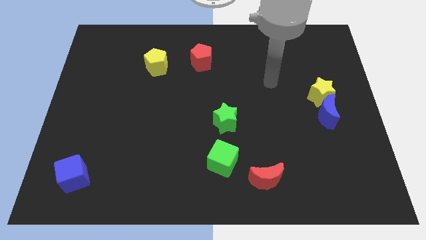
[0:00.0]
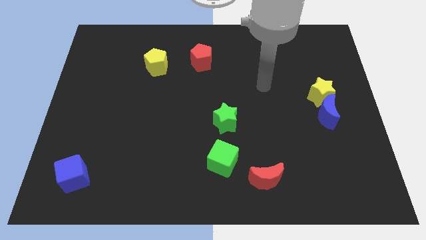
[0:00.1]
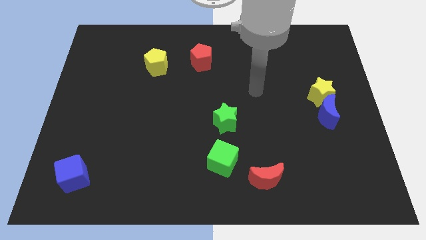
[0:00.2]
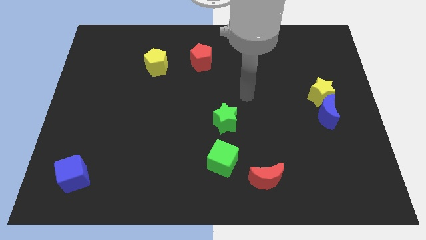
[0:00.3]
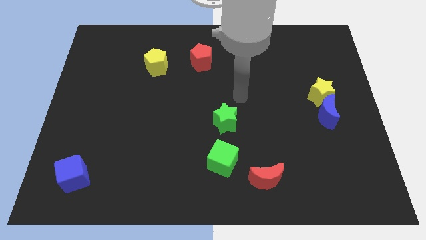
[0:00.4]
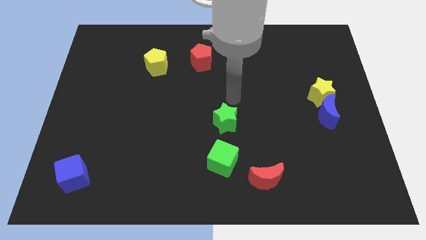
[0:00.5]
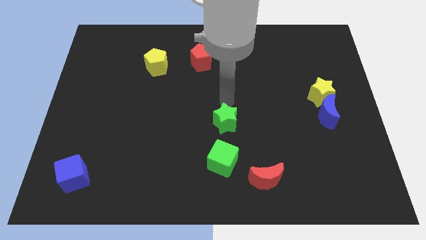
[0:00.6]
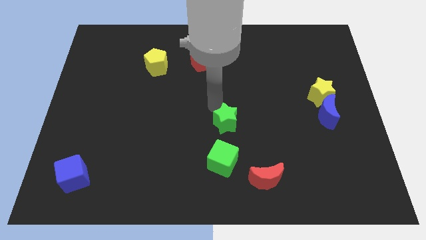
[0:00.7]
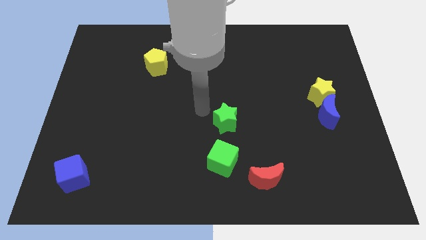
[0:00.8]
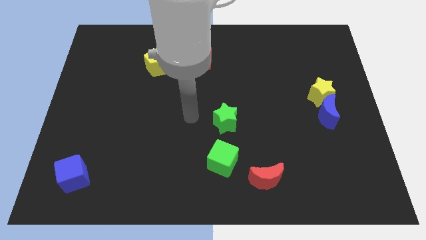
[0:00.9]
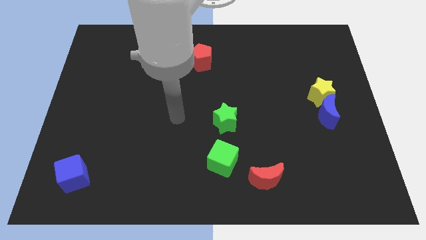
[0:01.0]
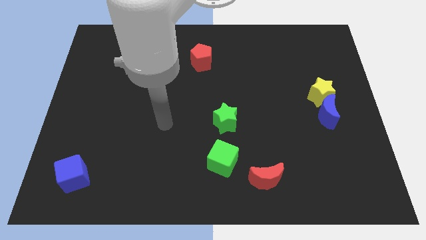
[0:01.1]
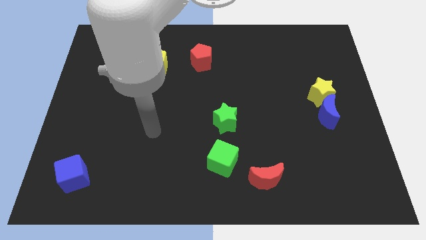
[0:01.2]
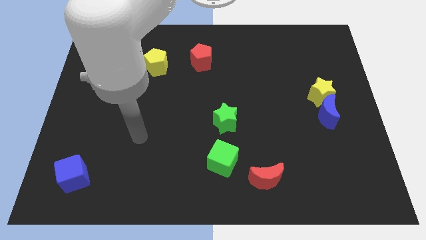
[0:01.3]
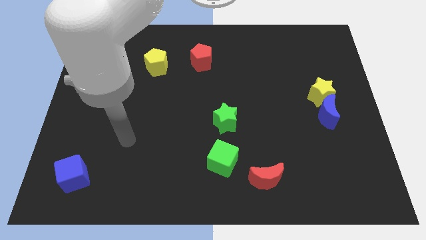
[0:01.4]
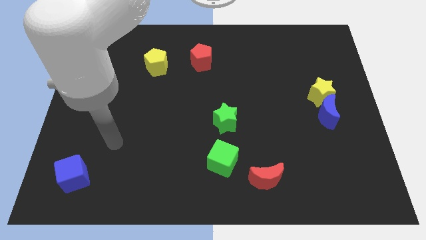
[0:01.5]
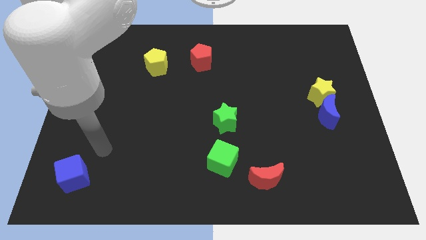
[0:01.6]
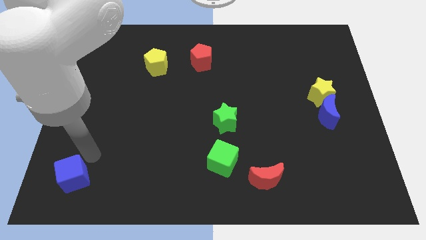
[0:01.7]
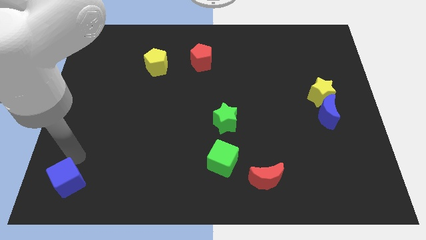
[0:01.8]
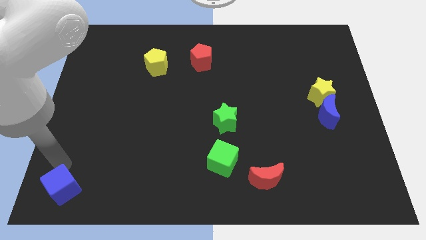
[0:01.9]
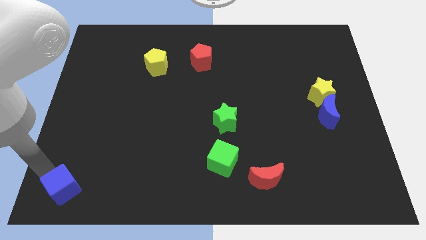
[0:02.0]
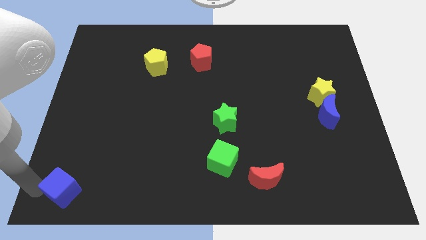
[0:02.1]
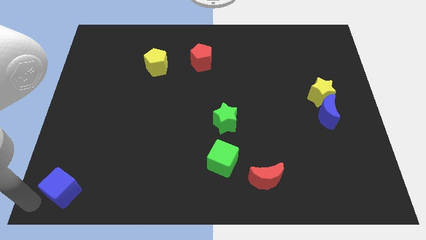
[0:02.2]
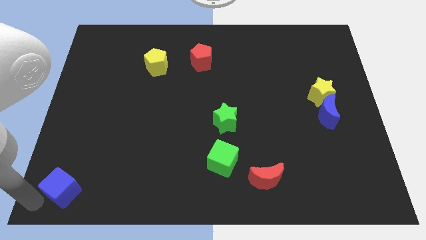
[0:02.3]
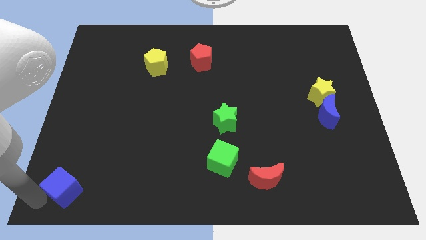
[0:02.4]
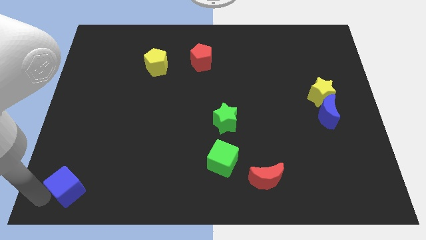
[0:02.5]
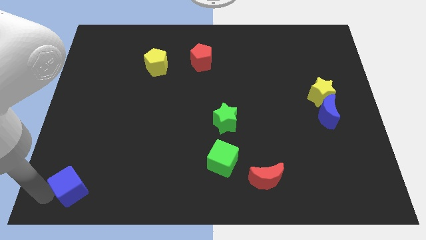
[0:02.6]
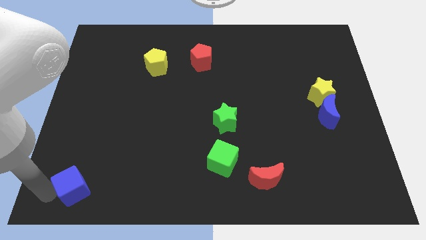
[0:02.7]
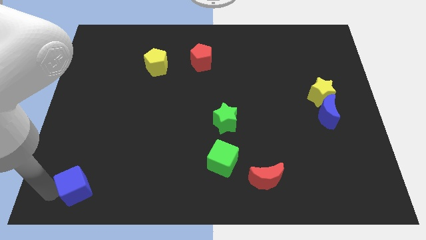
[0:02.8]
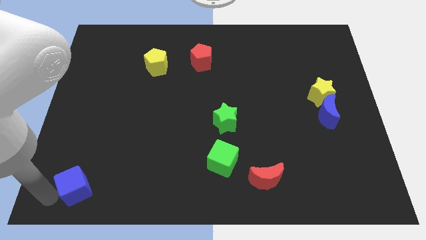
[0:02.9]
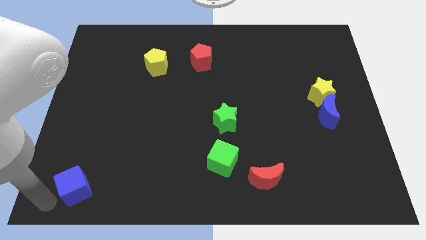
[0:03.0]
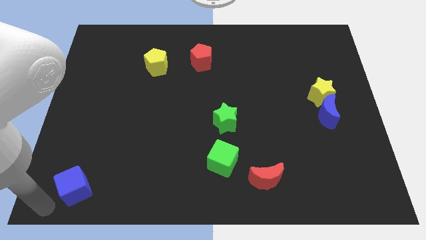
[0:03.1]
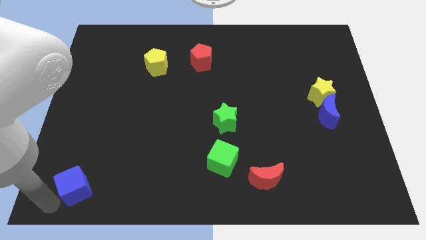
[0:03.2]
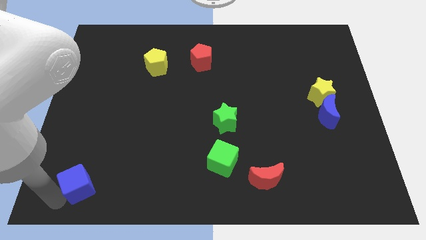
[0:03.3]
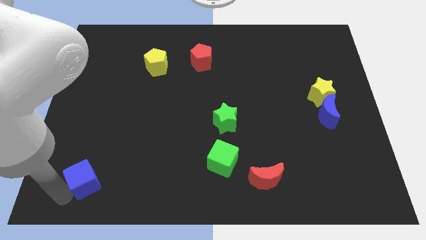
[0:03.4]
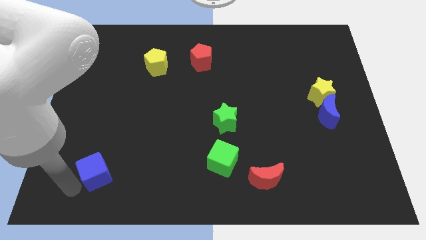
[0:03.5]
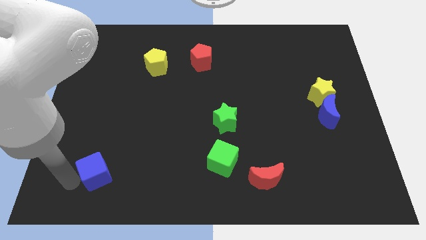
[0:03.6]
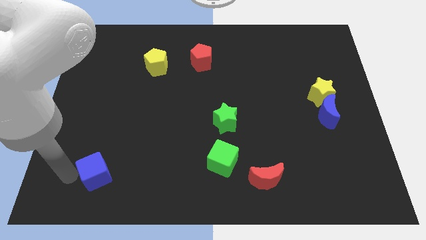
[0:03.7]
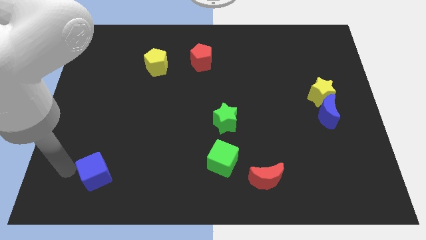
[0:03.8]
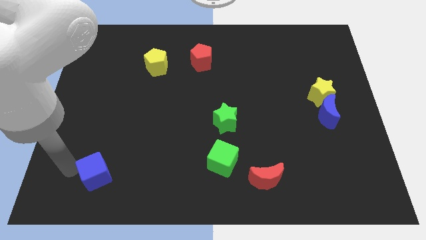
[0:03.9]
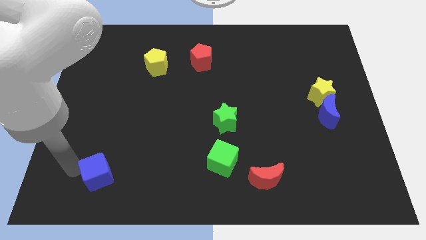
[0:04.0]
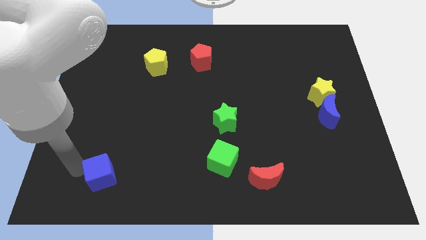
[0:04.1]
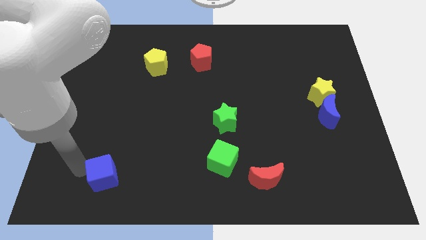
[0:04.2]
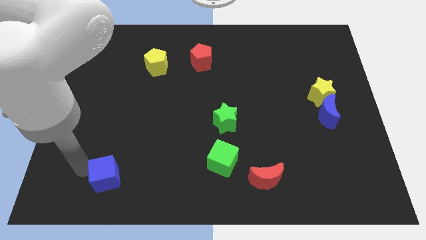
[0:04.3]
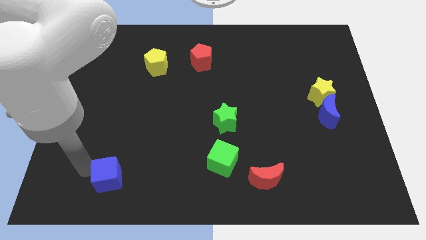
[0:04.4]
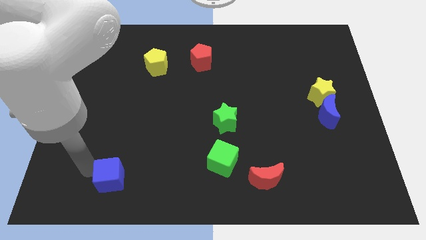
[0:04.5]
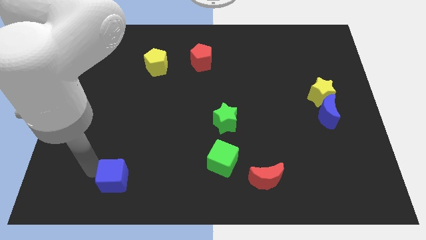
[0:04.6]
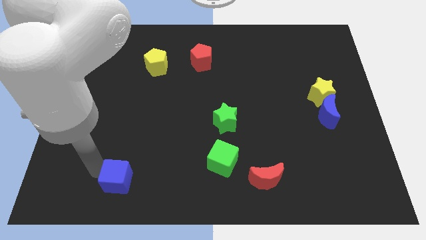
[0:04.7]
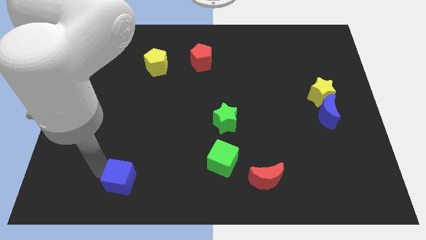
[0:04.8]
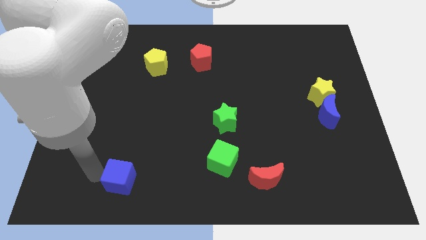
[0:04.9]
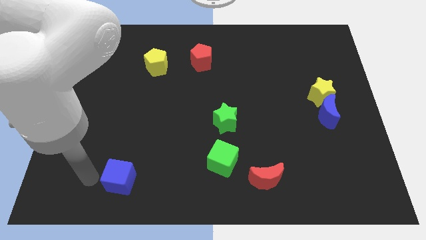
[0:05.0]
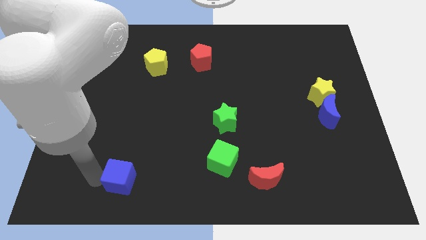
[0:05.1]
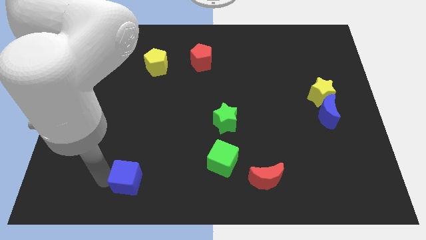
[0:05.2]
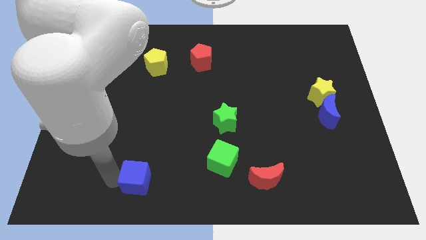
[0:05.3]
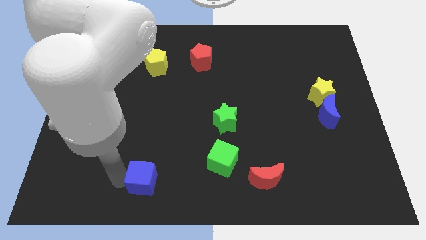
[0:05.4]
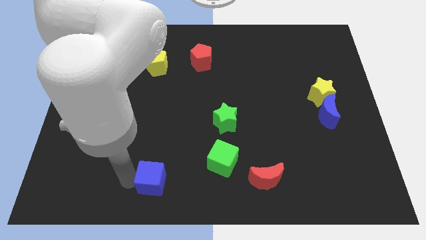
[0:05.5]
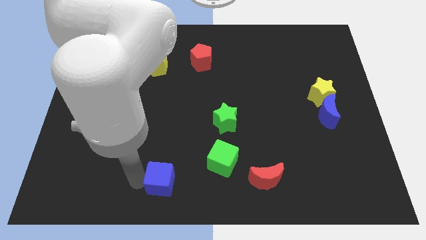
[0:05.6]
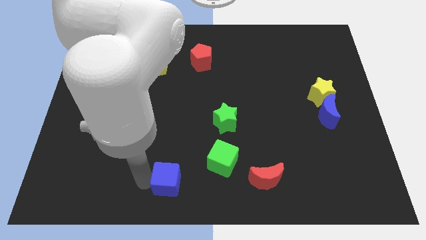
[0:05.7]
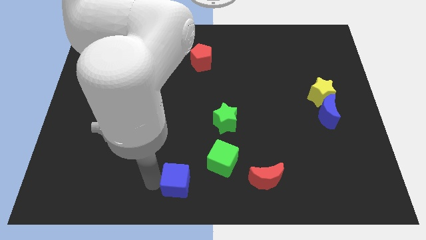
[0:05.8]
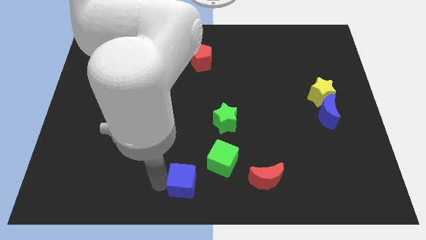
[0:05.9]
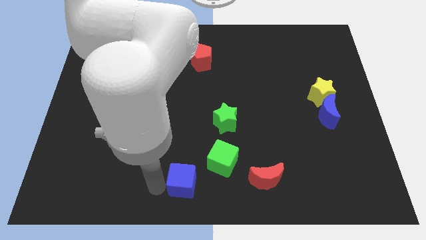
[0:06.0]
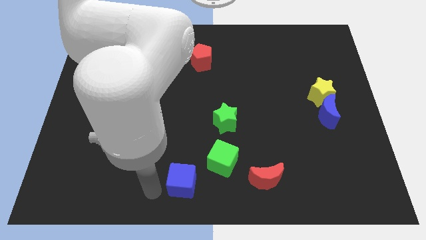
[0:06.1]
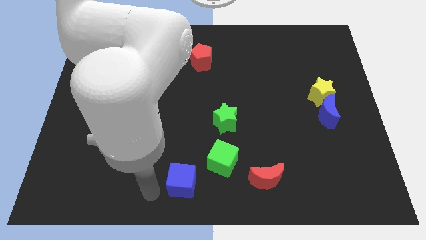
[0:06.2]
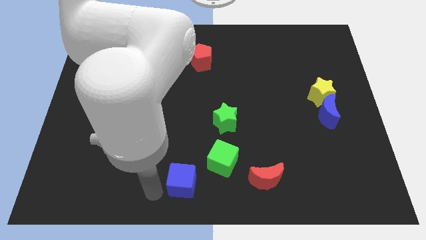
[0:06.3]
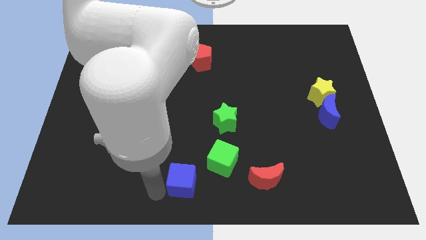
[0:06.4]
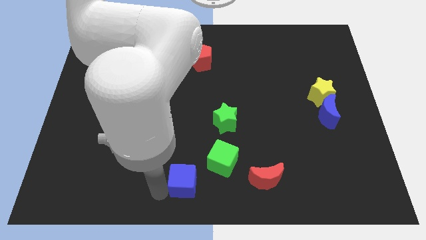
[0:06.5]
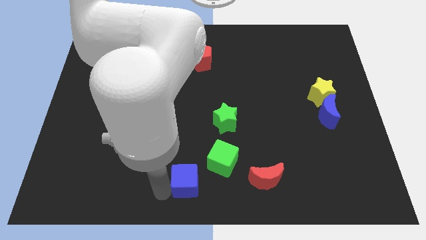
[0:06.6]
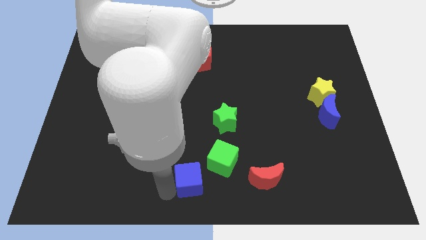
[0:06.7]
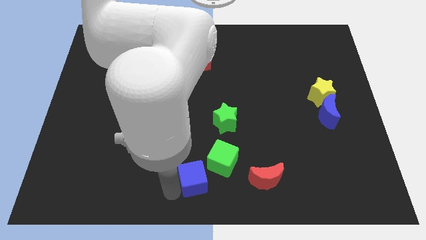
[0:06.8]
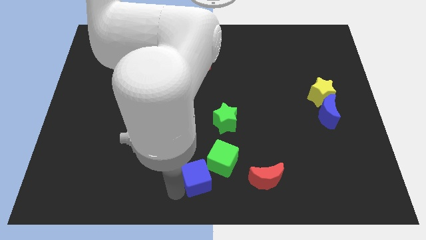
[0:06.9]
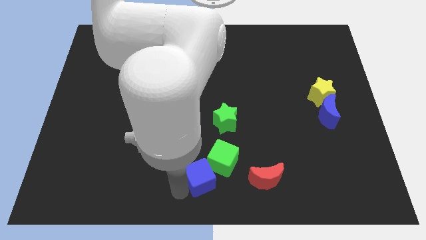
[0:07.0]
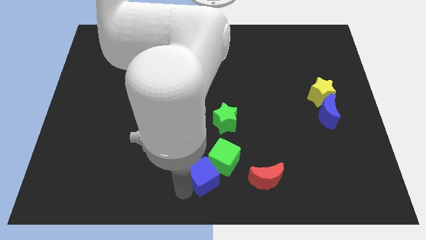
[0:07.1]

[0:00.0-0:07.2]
push the blue cube towards the green cube

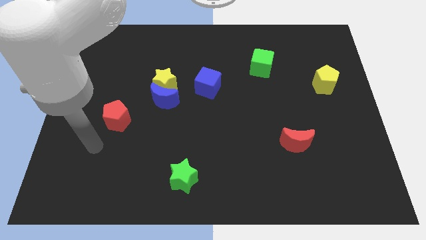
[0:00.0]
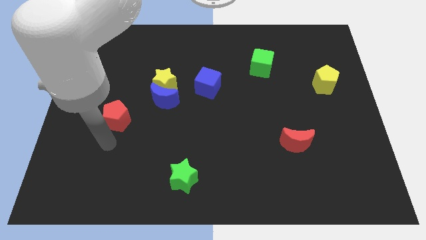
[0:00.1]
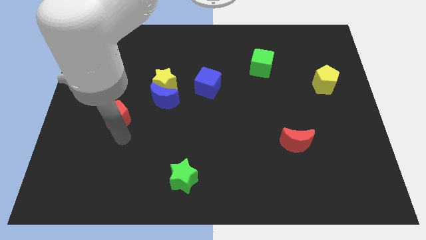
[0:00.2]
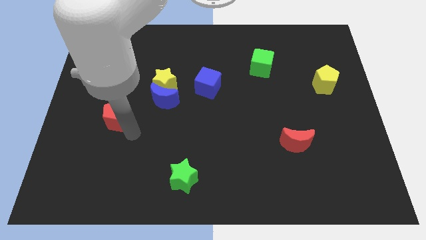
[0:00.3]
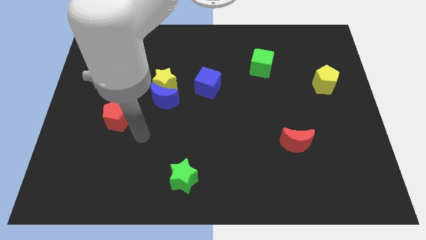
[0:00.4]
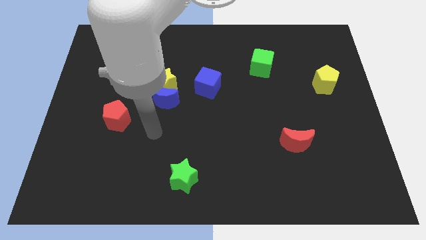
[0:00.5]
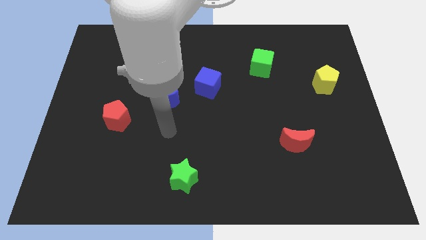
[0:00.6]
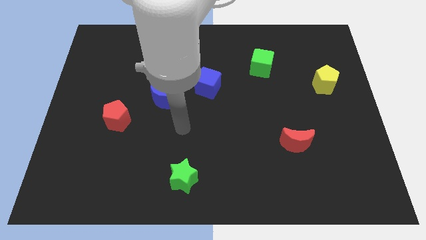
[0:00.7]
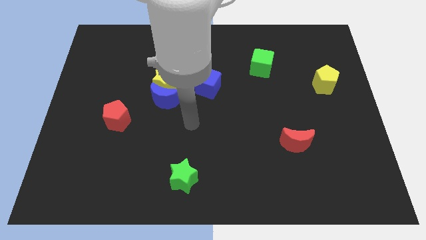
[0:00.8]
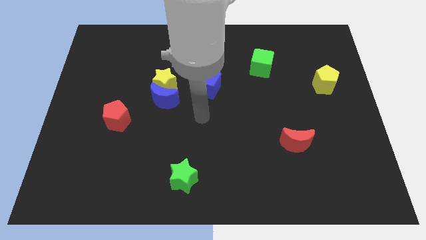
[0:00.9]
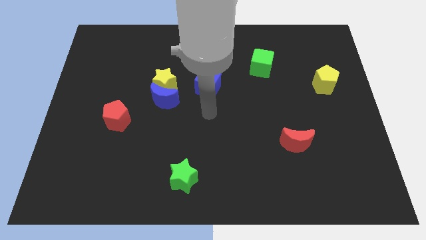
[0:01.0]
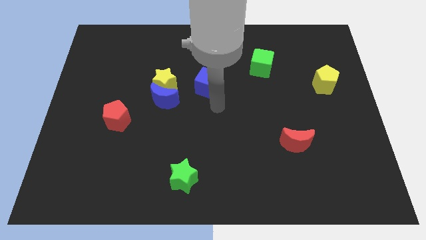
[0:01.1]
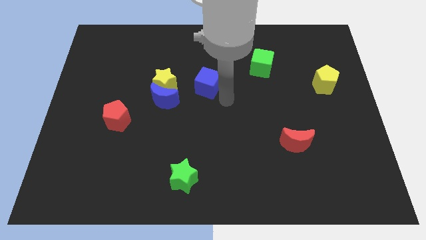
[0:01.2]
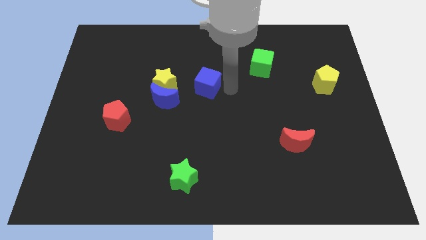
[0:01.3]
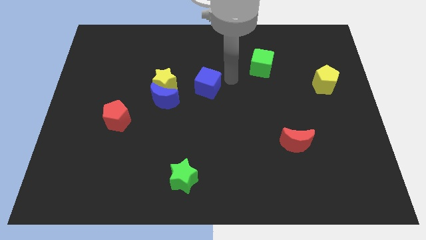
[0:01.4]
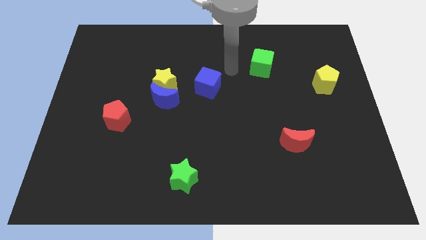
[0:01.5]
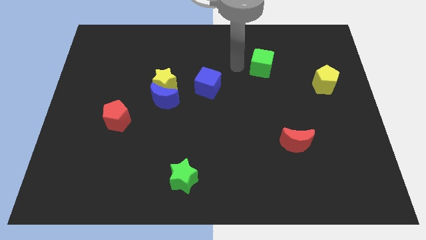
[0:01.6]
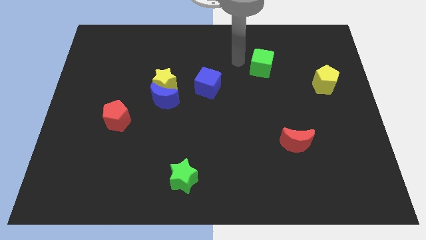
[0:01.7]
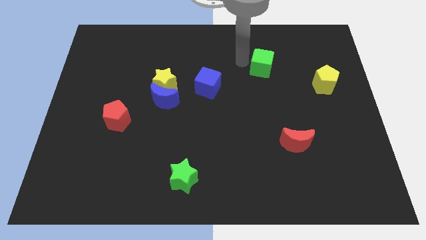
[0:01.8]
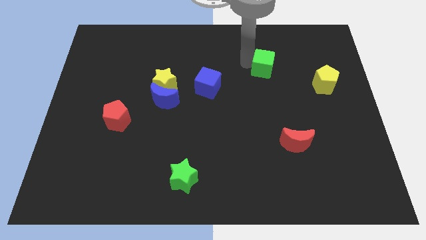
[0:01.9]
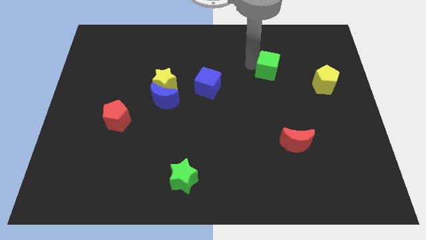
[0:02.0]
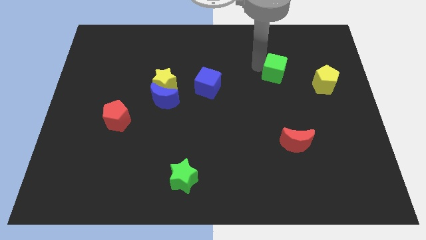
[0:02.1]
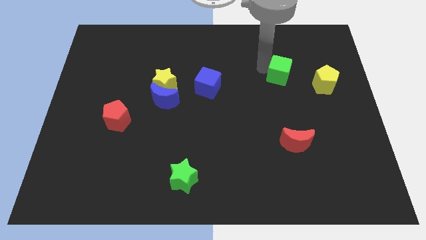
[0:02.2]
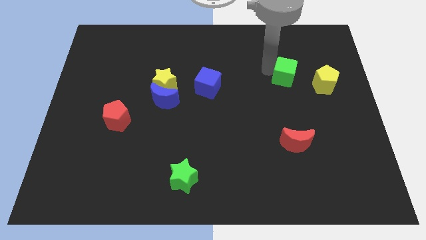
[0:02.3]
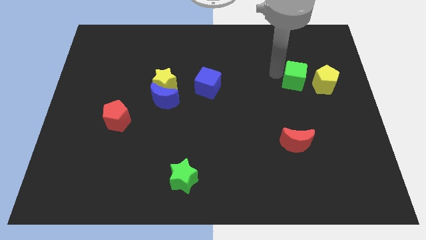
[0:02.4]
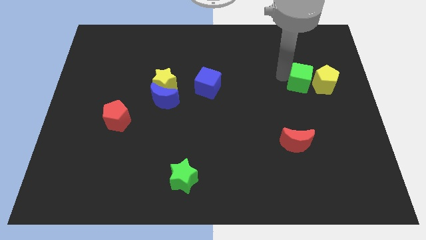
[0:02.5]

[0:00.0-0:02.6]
push the green cube to the yellow pentagon
